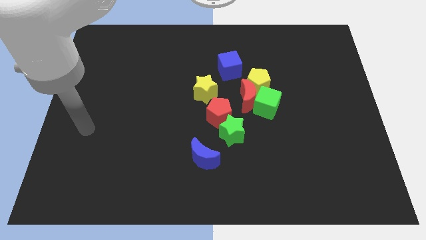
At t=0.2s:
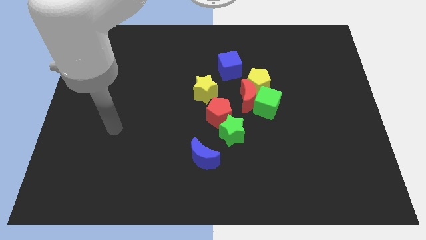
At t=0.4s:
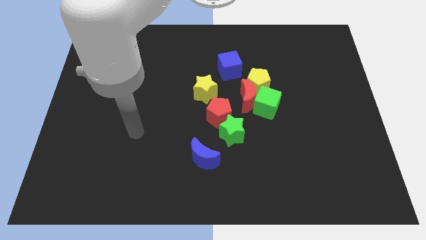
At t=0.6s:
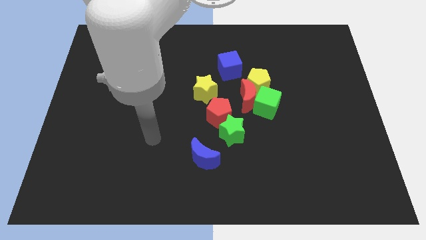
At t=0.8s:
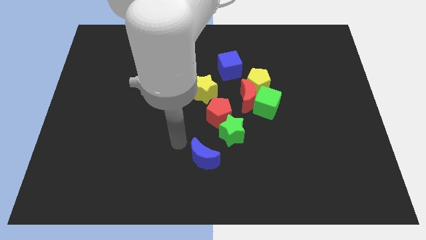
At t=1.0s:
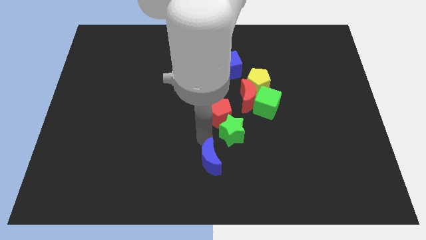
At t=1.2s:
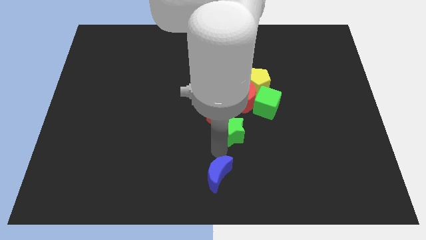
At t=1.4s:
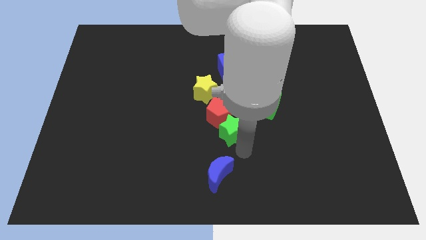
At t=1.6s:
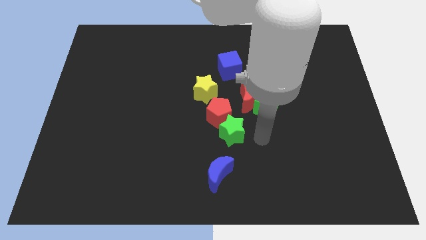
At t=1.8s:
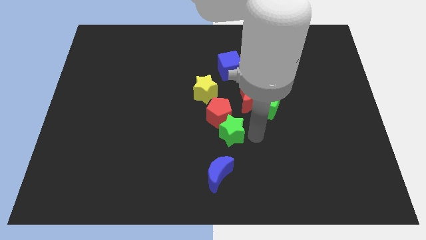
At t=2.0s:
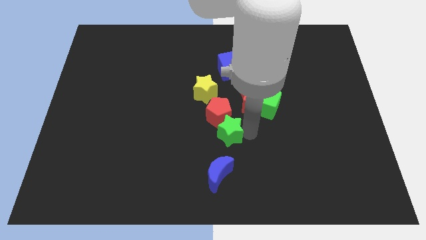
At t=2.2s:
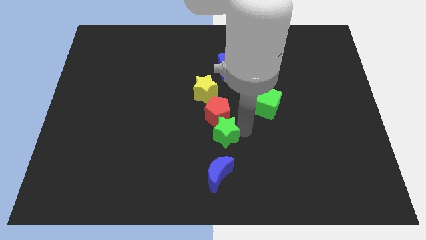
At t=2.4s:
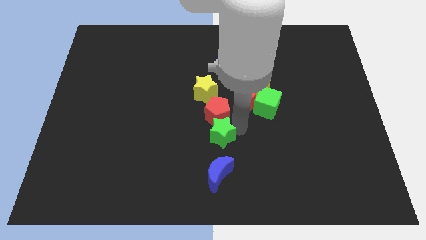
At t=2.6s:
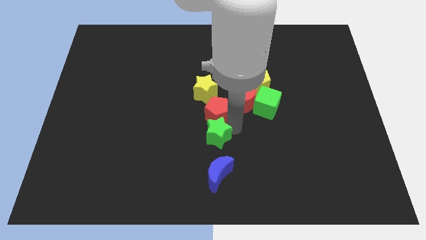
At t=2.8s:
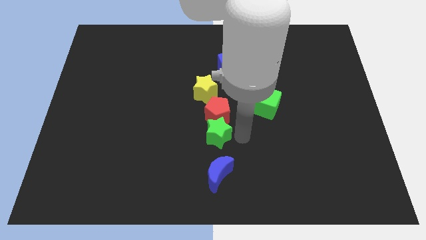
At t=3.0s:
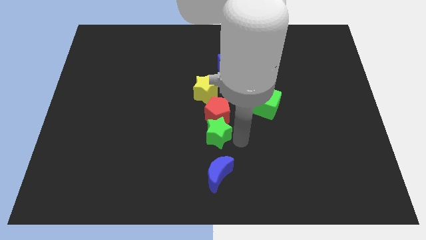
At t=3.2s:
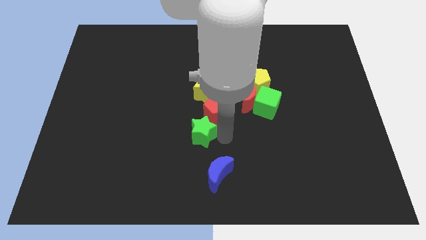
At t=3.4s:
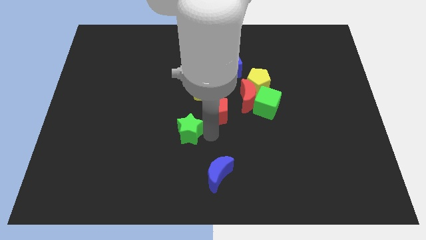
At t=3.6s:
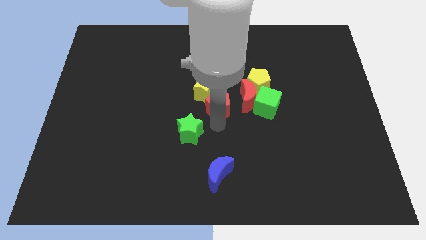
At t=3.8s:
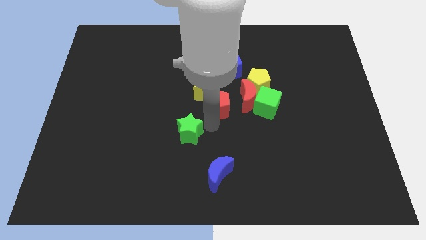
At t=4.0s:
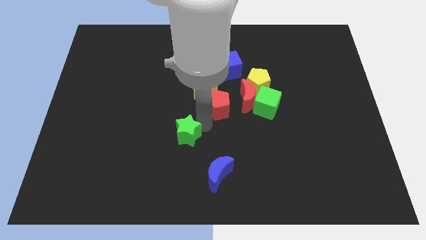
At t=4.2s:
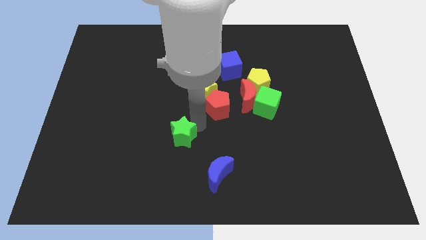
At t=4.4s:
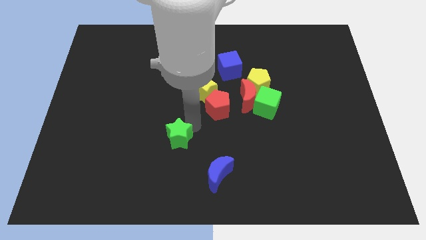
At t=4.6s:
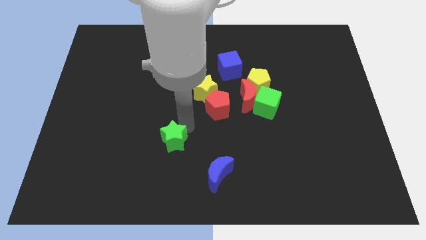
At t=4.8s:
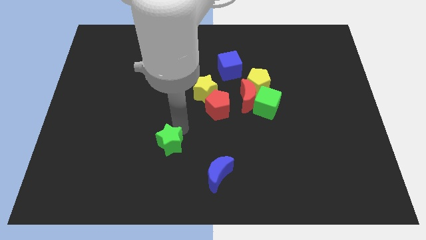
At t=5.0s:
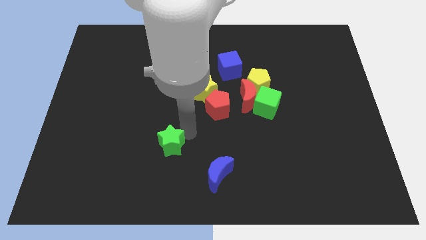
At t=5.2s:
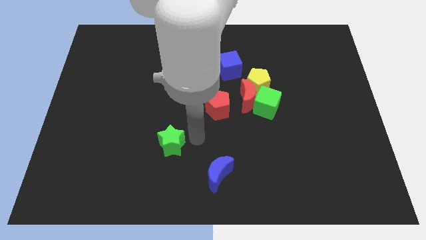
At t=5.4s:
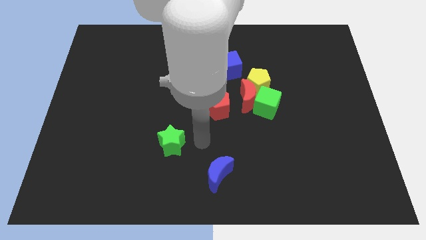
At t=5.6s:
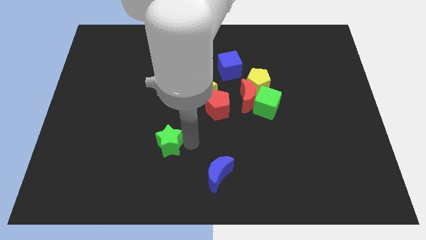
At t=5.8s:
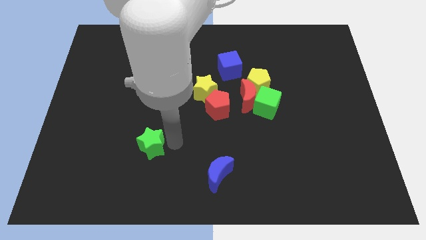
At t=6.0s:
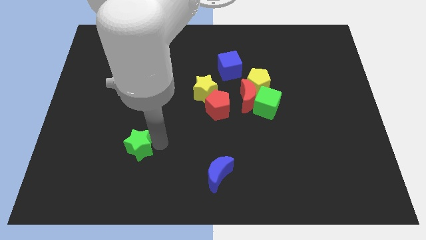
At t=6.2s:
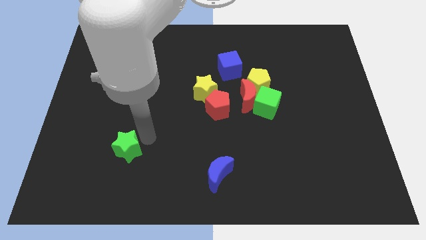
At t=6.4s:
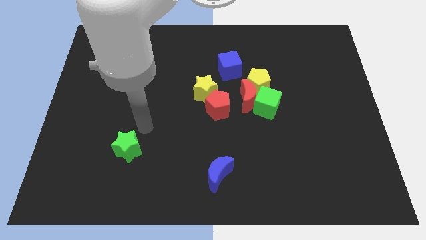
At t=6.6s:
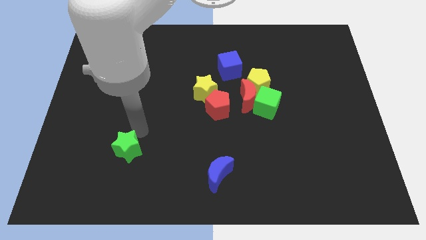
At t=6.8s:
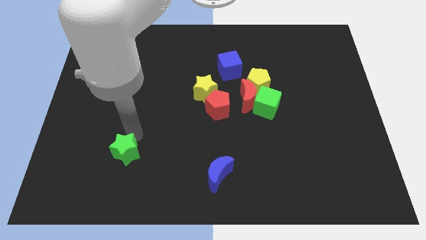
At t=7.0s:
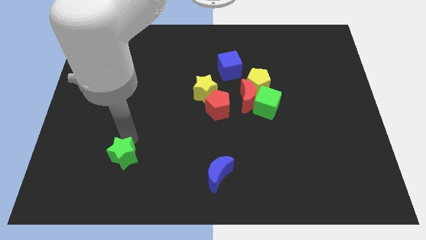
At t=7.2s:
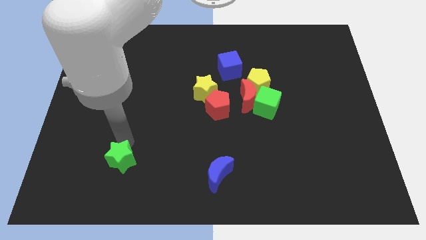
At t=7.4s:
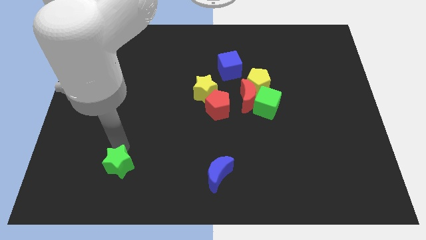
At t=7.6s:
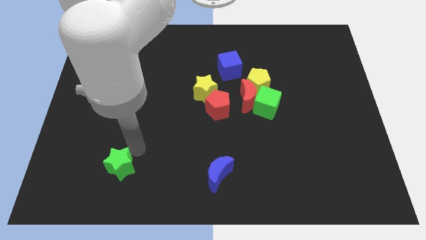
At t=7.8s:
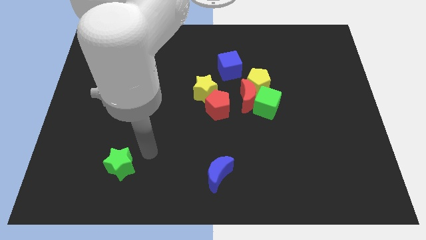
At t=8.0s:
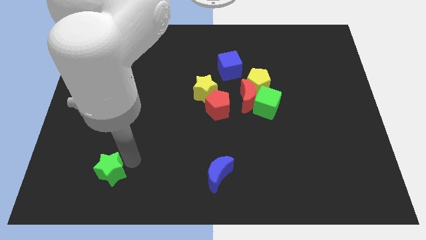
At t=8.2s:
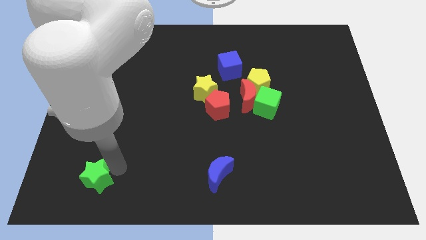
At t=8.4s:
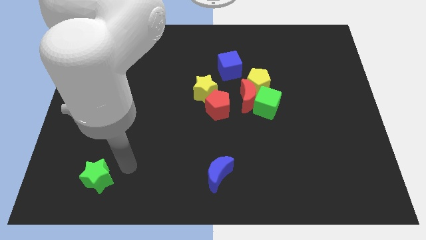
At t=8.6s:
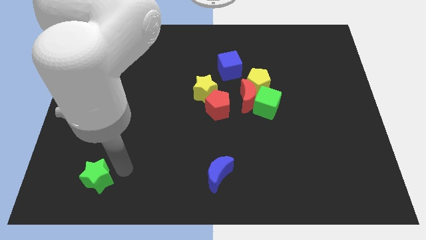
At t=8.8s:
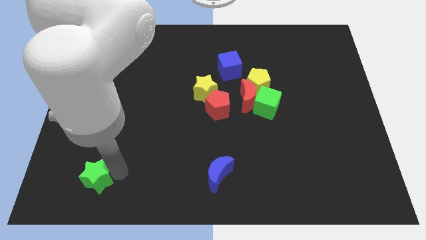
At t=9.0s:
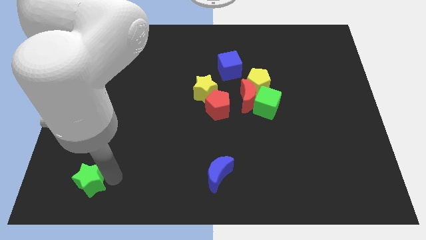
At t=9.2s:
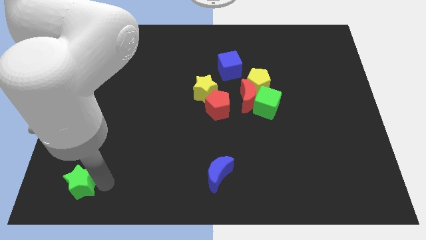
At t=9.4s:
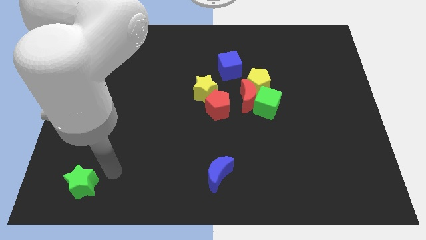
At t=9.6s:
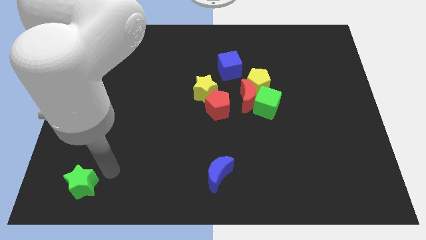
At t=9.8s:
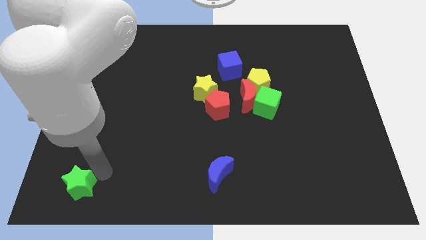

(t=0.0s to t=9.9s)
move the green star to the bottom left of the board

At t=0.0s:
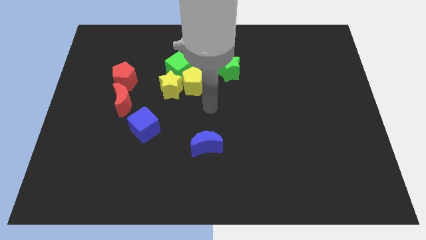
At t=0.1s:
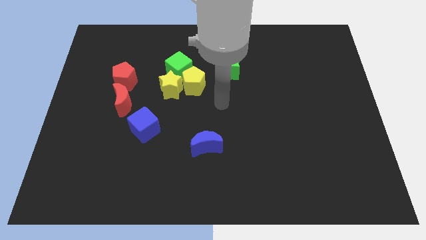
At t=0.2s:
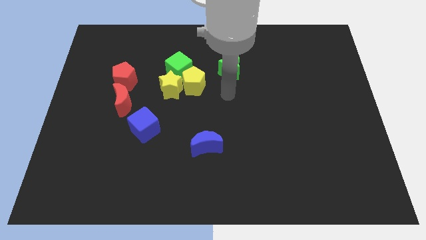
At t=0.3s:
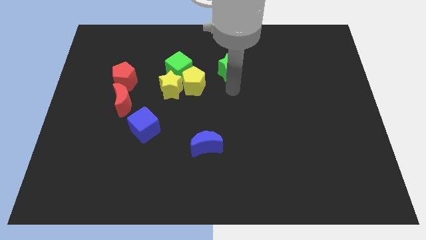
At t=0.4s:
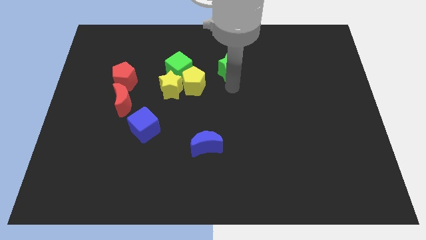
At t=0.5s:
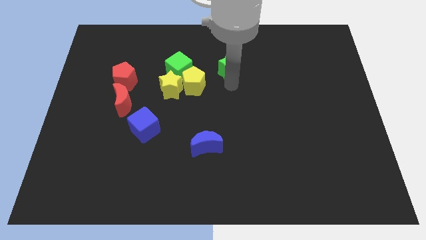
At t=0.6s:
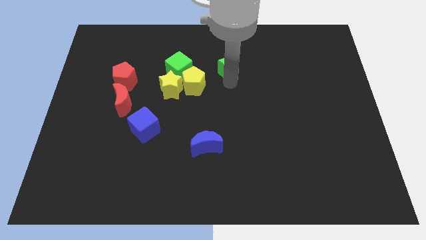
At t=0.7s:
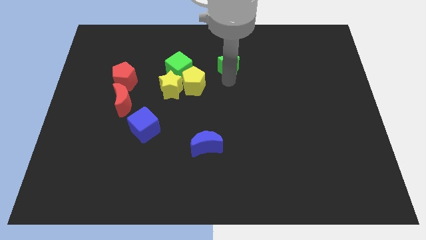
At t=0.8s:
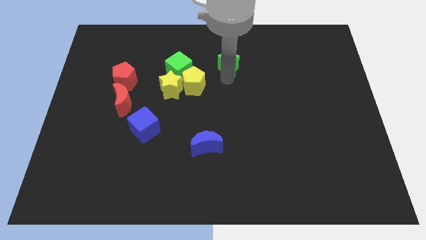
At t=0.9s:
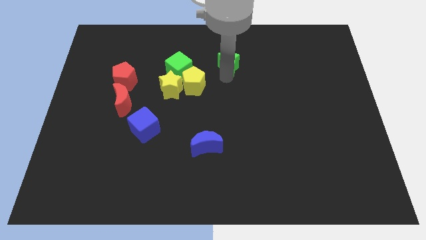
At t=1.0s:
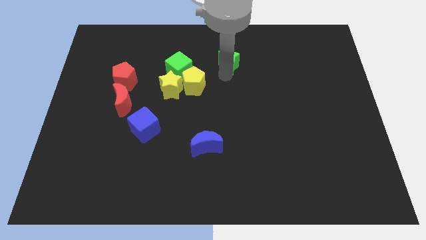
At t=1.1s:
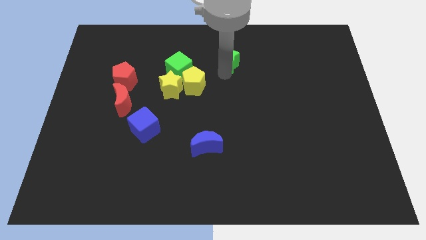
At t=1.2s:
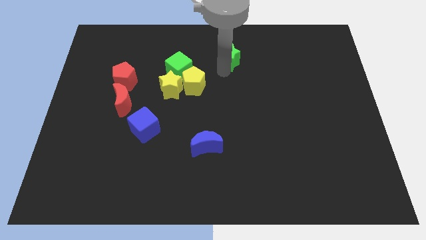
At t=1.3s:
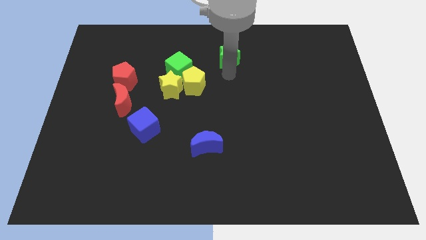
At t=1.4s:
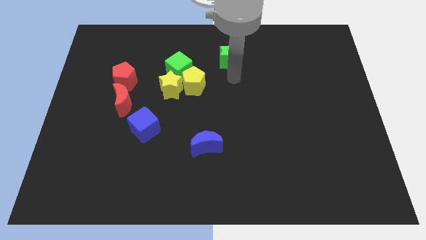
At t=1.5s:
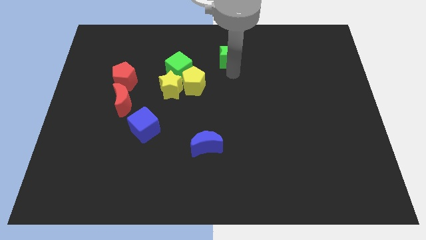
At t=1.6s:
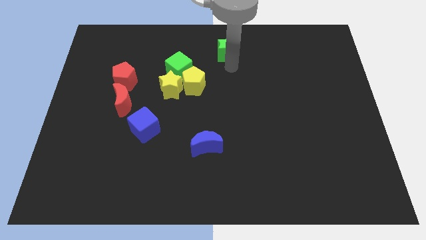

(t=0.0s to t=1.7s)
put the green star to the top side

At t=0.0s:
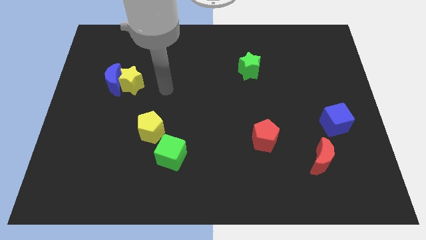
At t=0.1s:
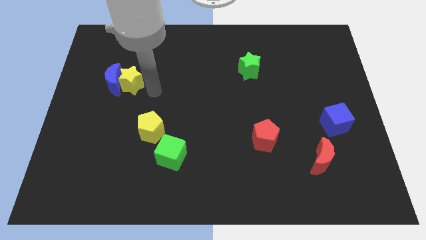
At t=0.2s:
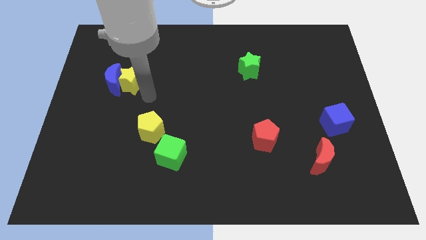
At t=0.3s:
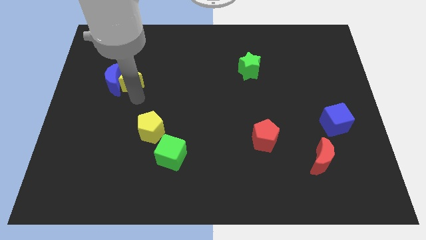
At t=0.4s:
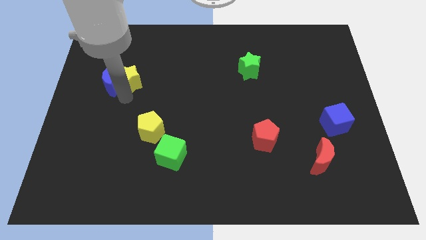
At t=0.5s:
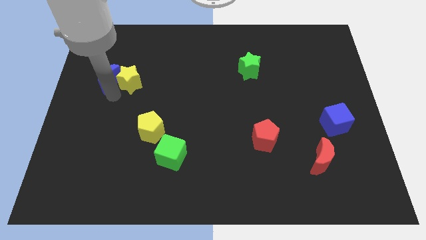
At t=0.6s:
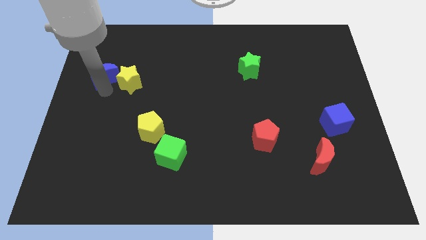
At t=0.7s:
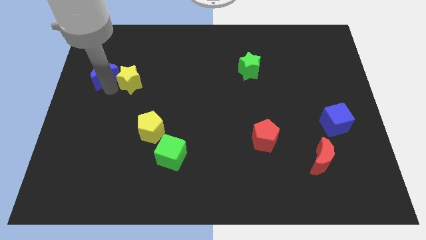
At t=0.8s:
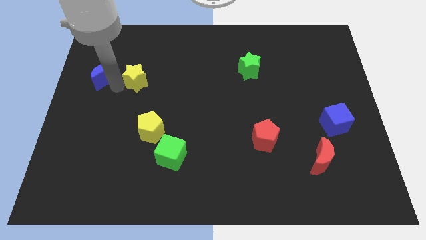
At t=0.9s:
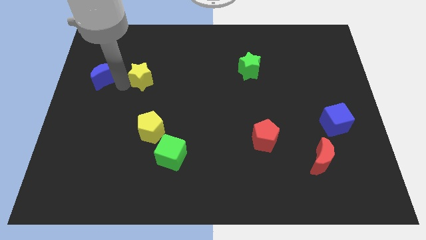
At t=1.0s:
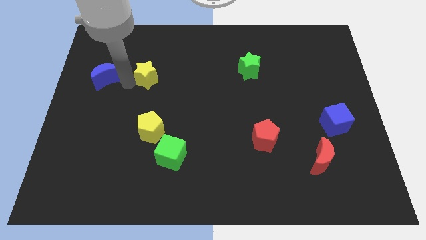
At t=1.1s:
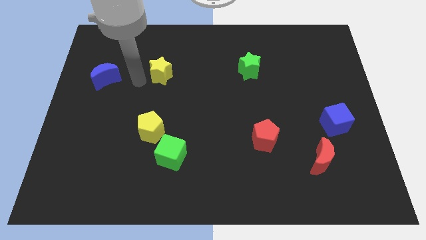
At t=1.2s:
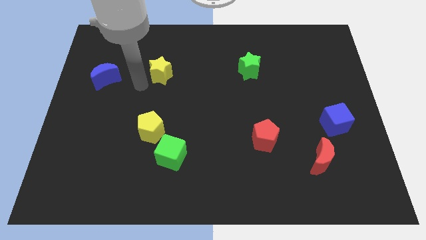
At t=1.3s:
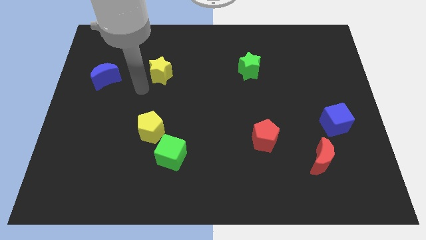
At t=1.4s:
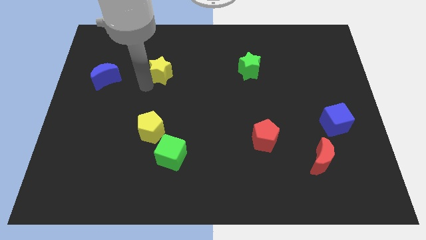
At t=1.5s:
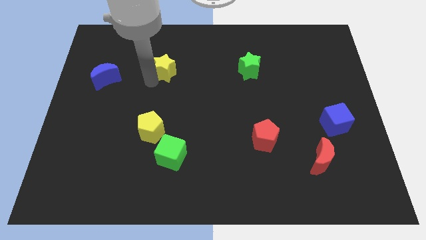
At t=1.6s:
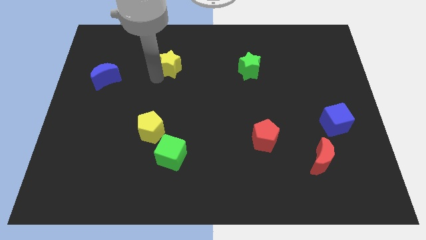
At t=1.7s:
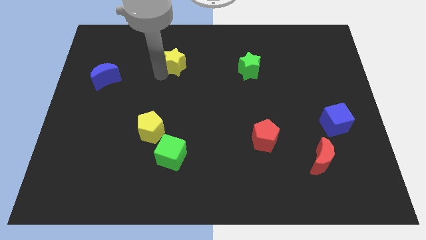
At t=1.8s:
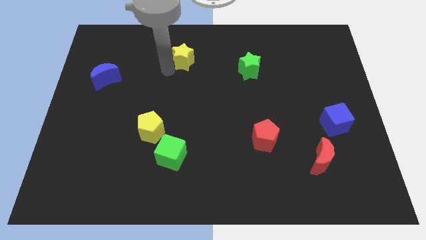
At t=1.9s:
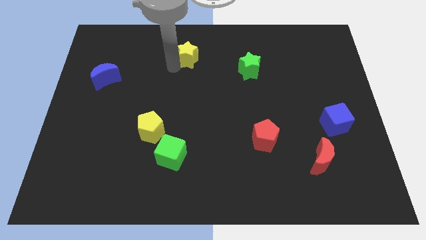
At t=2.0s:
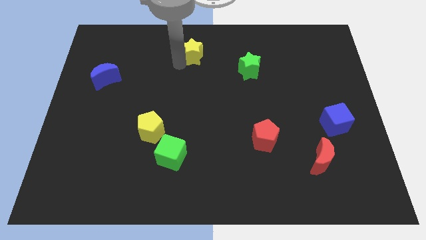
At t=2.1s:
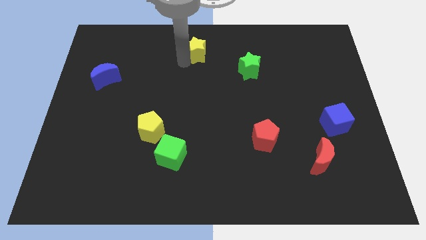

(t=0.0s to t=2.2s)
put the yellow star to the top
